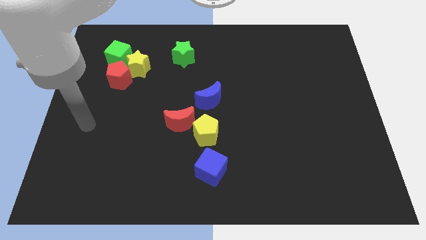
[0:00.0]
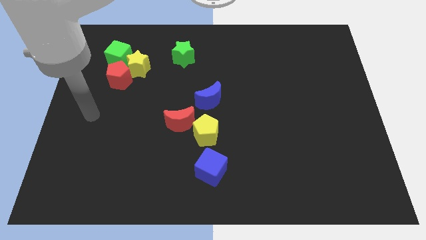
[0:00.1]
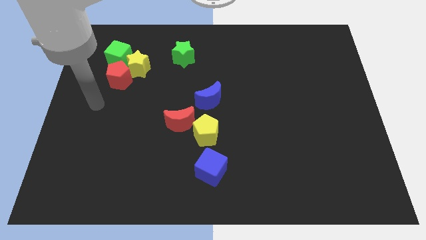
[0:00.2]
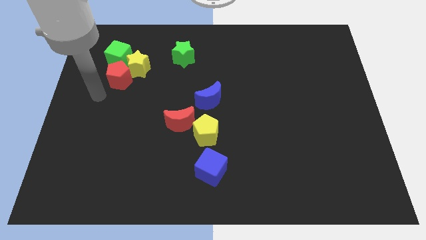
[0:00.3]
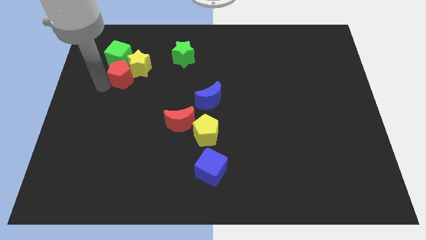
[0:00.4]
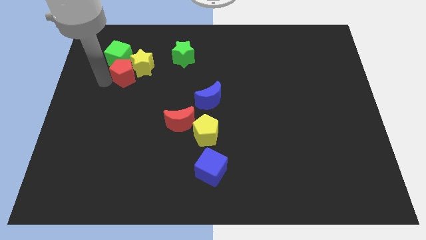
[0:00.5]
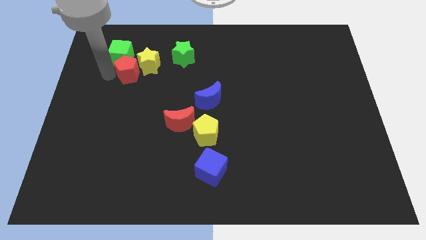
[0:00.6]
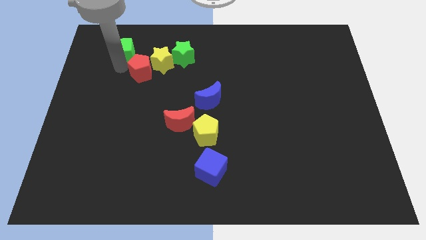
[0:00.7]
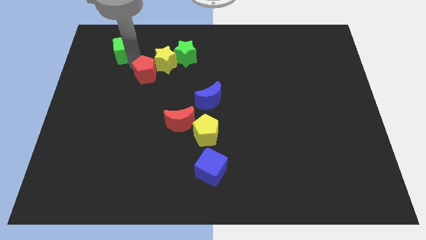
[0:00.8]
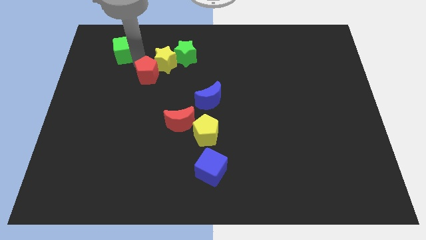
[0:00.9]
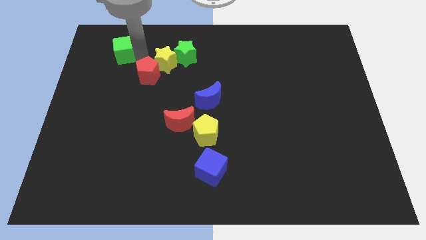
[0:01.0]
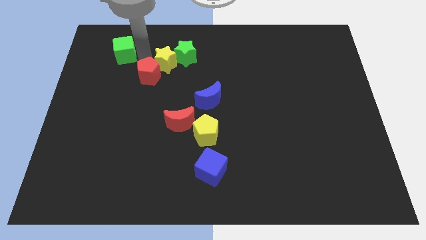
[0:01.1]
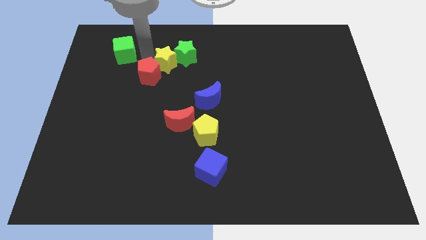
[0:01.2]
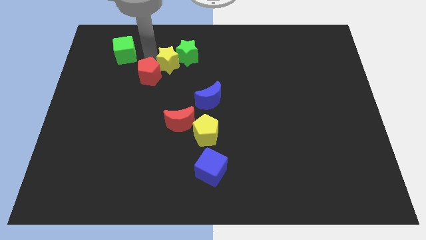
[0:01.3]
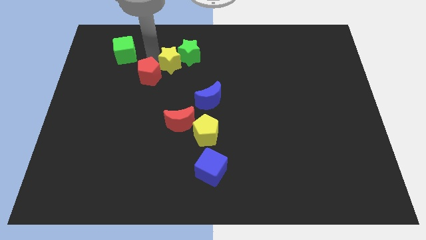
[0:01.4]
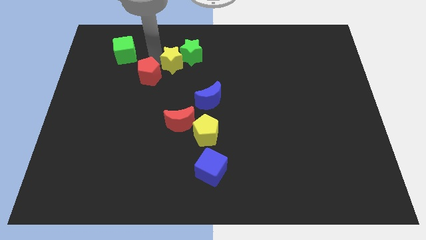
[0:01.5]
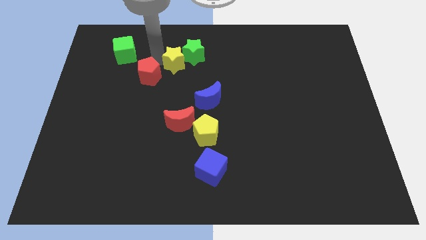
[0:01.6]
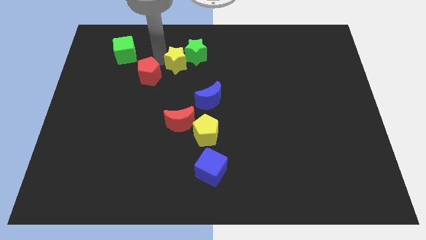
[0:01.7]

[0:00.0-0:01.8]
separate the yellow star from the red pentagon and green cube

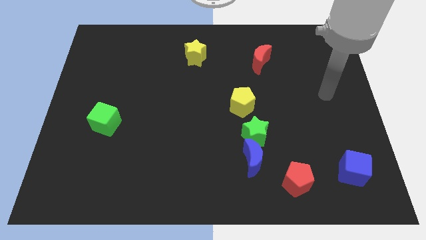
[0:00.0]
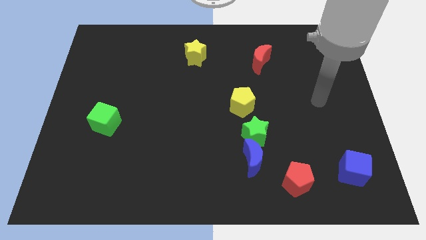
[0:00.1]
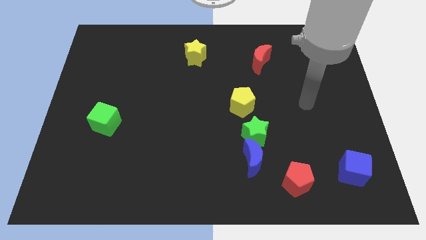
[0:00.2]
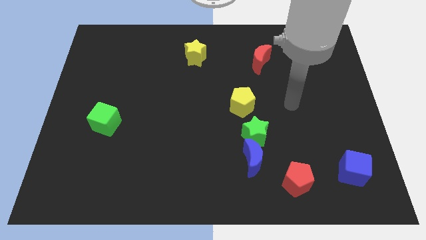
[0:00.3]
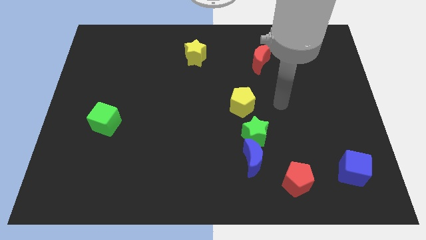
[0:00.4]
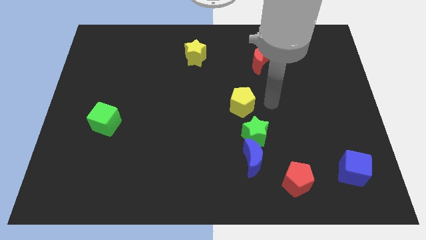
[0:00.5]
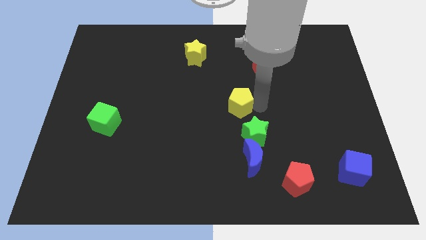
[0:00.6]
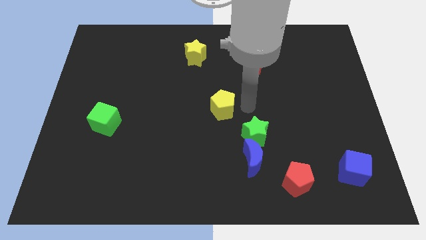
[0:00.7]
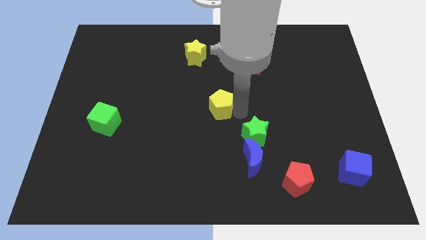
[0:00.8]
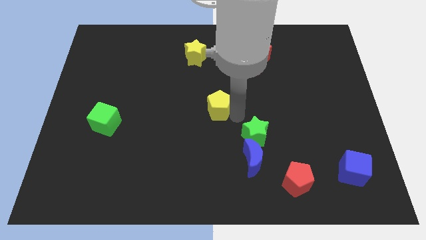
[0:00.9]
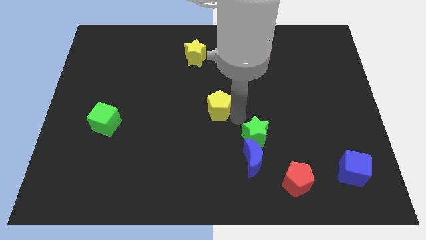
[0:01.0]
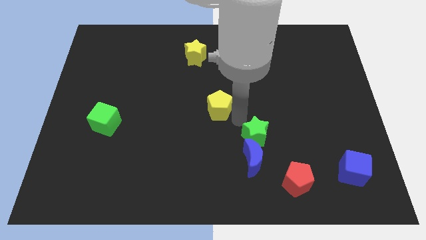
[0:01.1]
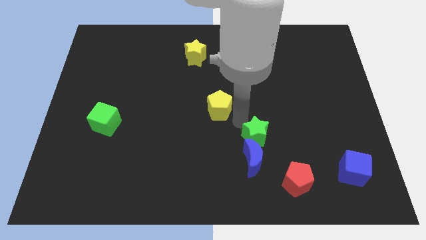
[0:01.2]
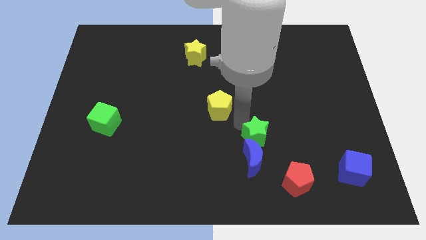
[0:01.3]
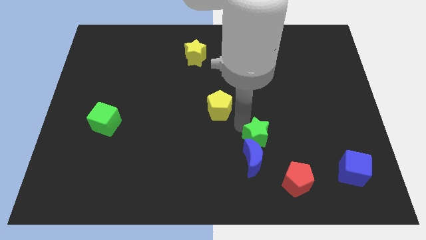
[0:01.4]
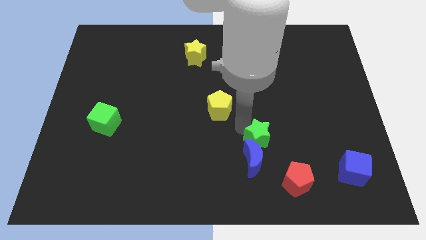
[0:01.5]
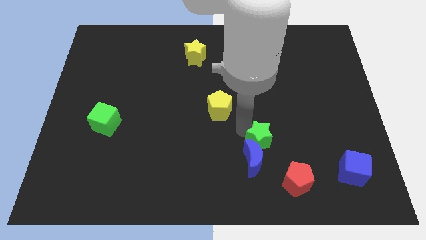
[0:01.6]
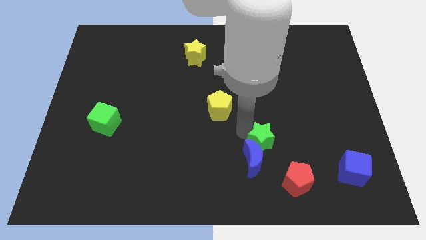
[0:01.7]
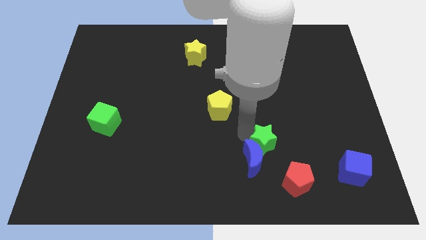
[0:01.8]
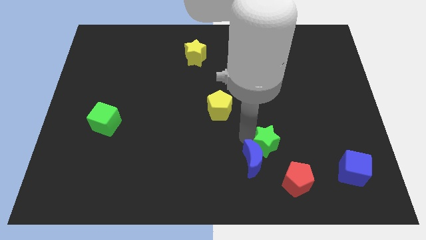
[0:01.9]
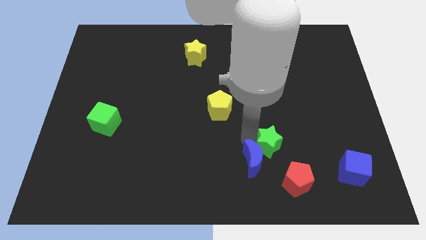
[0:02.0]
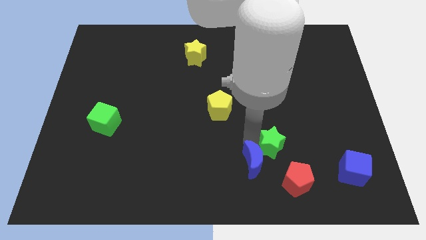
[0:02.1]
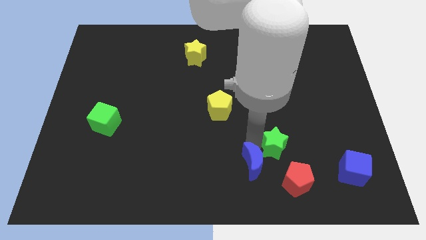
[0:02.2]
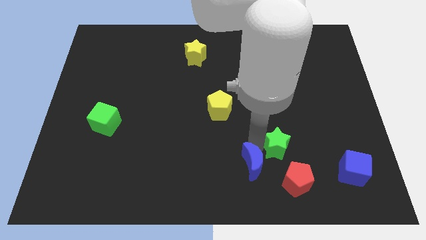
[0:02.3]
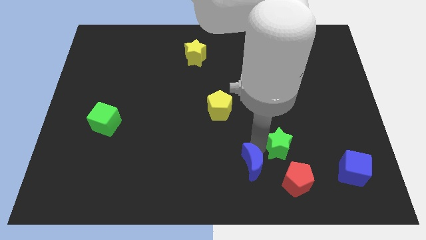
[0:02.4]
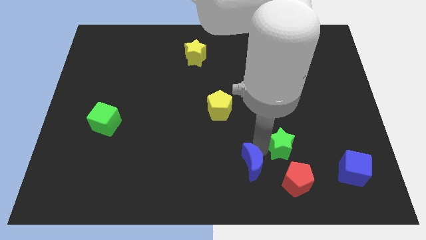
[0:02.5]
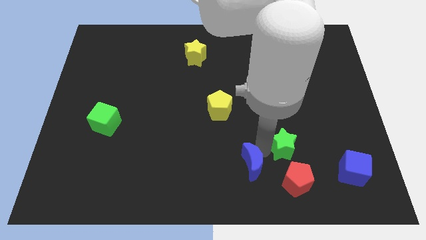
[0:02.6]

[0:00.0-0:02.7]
pull the green star apart from the blue moon and yellow pentagon

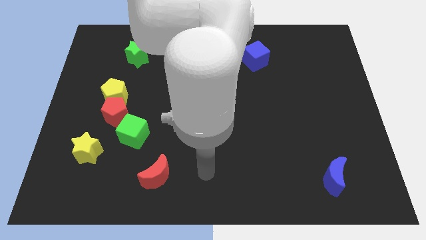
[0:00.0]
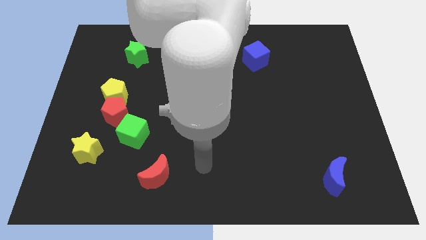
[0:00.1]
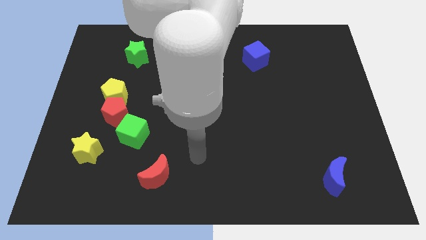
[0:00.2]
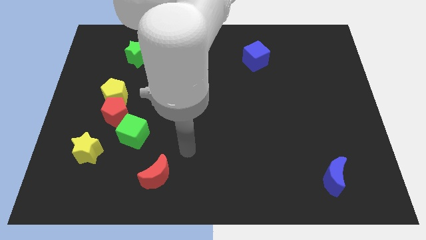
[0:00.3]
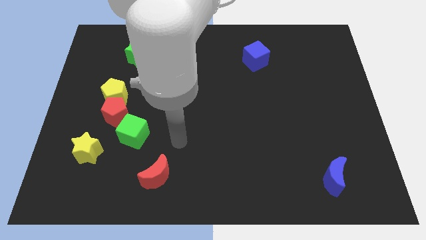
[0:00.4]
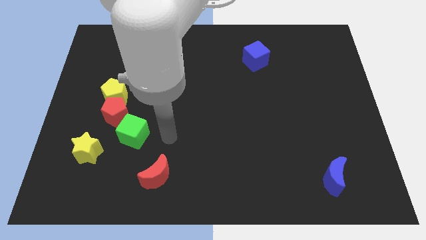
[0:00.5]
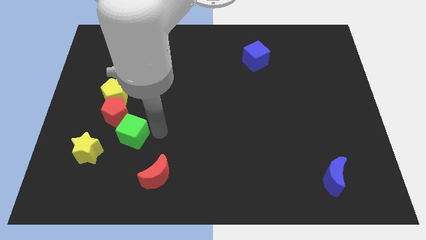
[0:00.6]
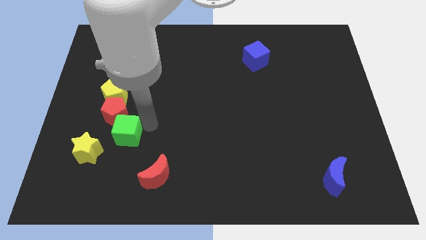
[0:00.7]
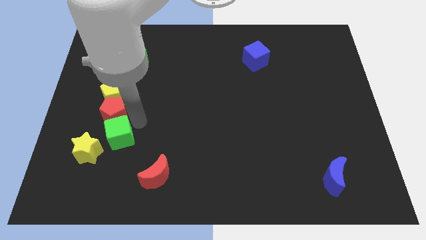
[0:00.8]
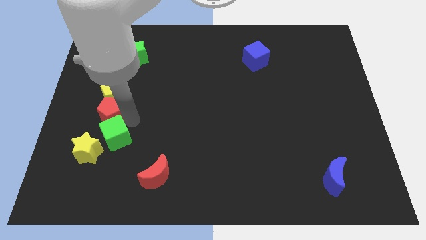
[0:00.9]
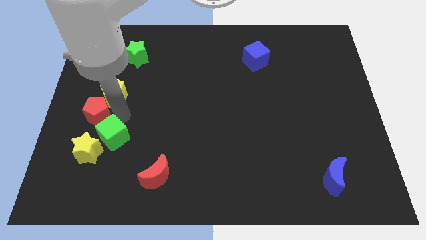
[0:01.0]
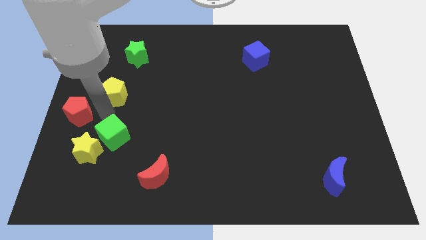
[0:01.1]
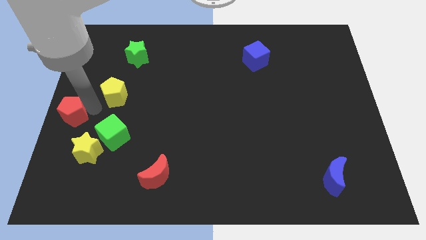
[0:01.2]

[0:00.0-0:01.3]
pull the yellow pentagon apart from the red pentagon

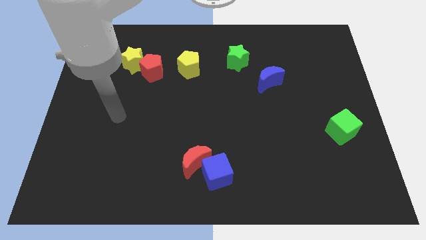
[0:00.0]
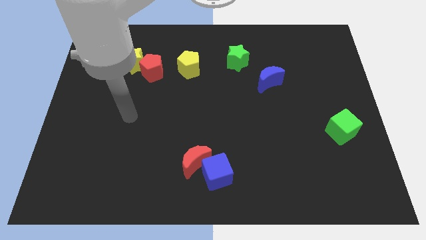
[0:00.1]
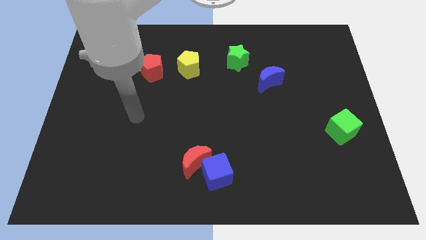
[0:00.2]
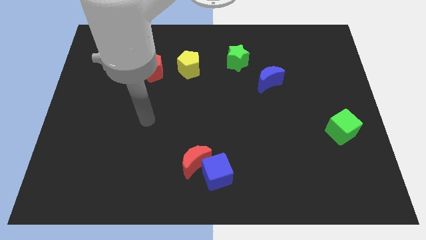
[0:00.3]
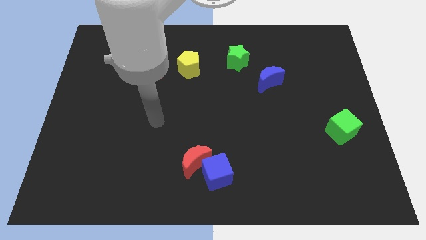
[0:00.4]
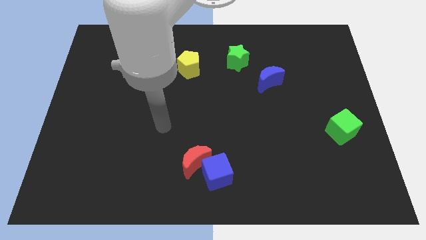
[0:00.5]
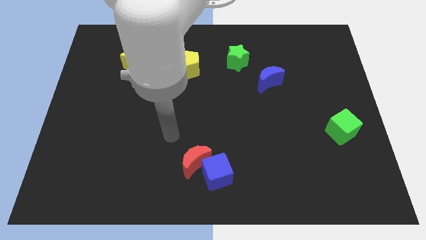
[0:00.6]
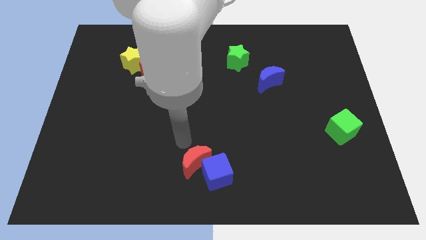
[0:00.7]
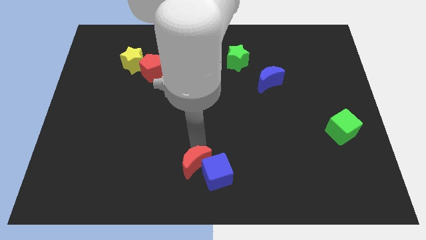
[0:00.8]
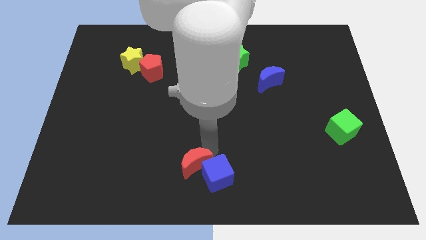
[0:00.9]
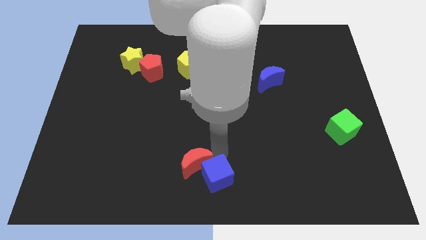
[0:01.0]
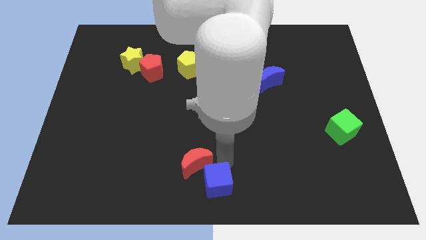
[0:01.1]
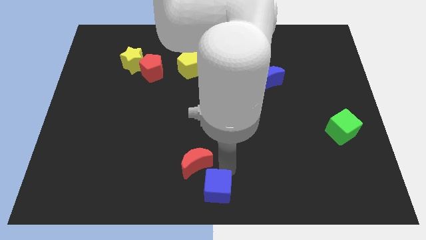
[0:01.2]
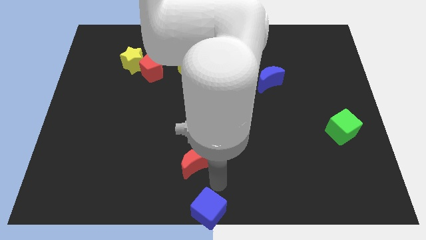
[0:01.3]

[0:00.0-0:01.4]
separate the red moon from the blue cube

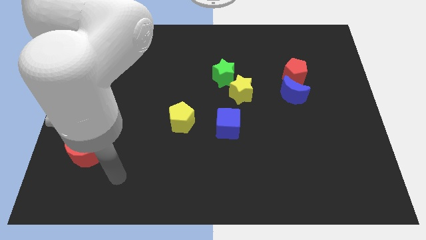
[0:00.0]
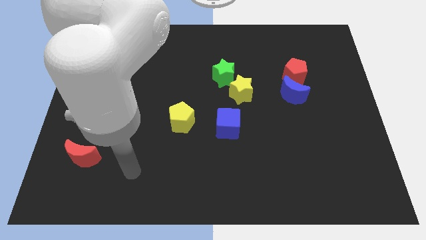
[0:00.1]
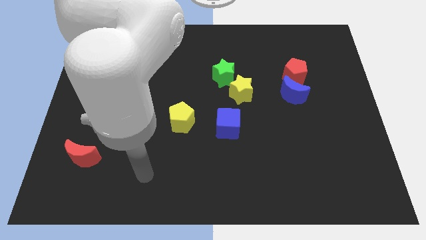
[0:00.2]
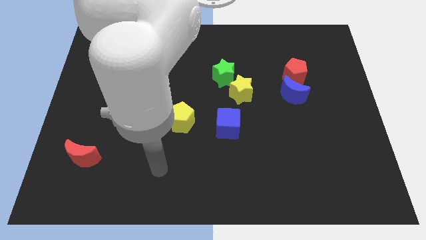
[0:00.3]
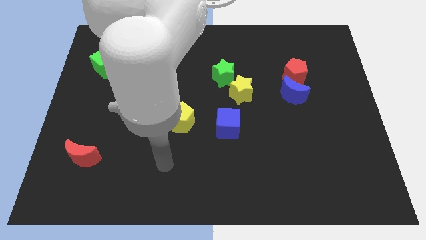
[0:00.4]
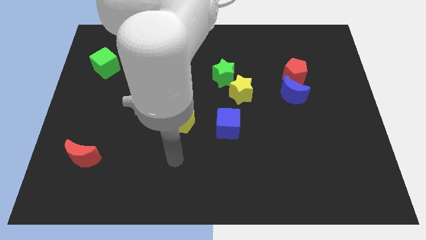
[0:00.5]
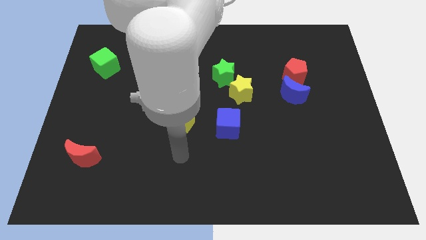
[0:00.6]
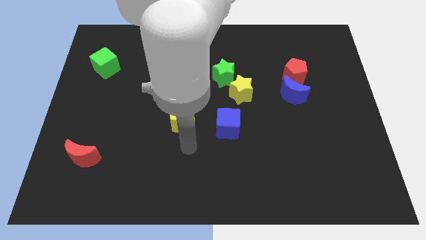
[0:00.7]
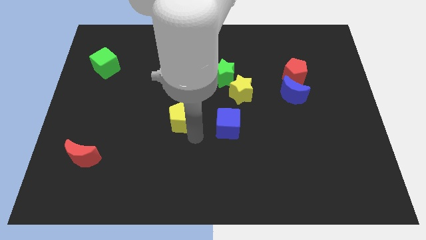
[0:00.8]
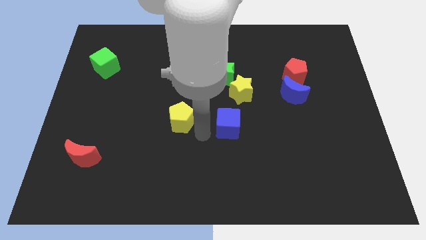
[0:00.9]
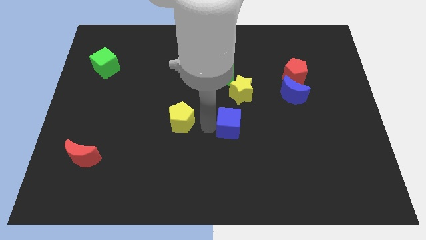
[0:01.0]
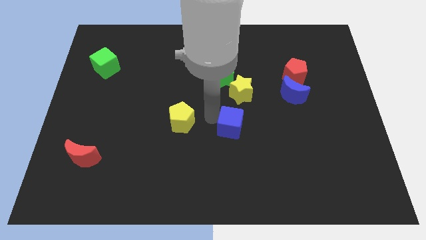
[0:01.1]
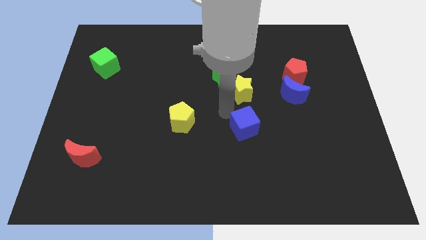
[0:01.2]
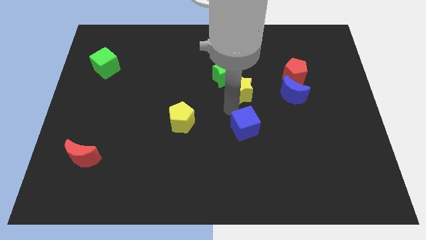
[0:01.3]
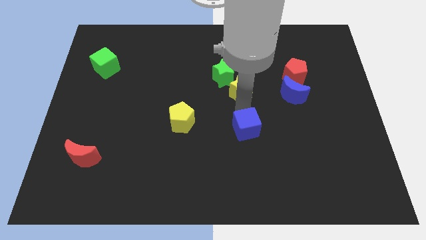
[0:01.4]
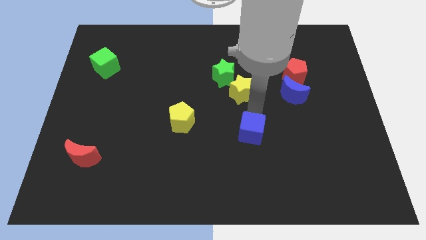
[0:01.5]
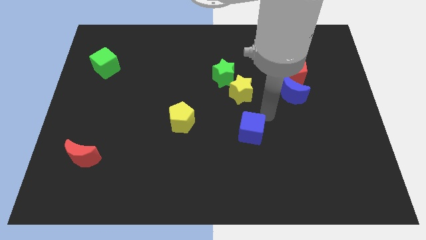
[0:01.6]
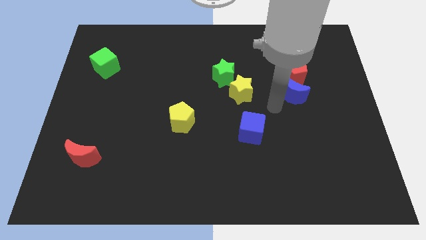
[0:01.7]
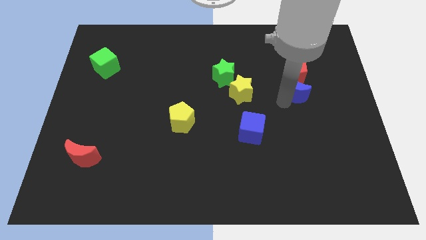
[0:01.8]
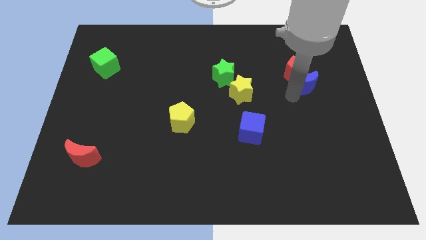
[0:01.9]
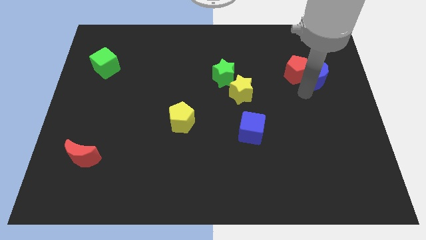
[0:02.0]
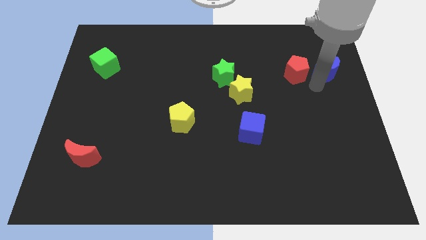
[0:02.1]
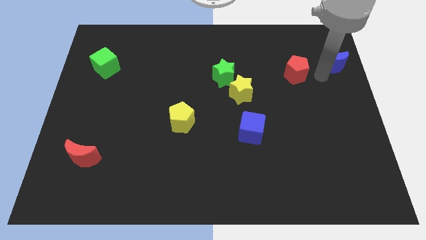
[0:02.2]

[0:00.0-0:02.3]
separate the red pentagon from the blue moon
